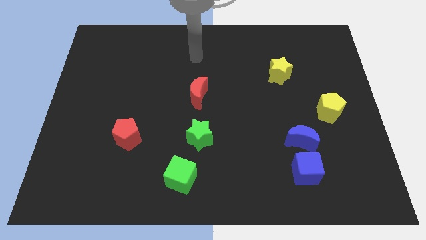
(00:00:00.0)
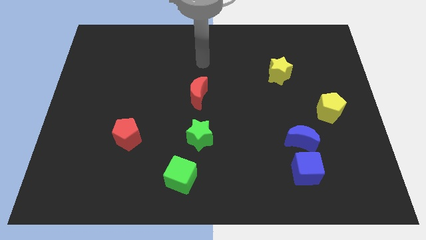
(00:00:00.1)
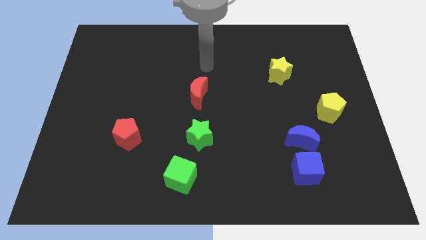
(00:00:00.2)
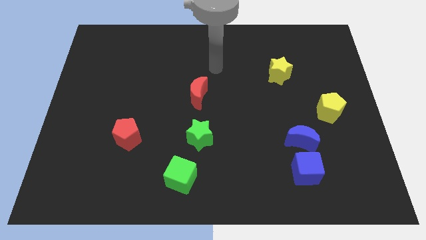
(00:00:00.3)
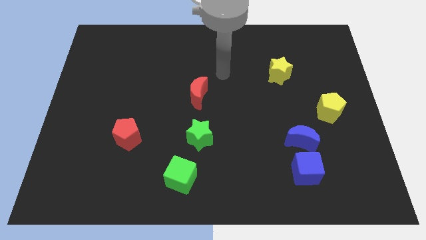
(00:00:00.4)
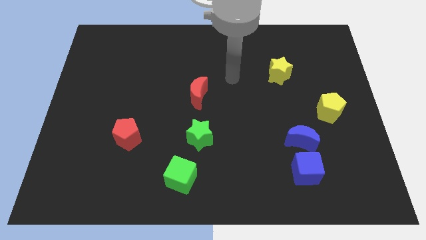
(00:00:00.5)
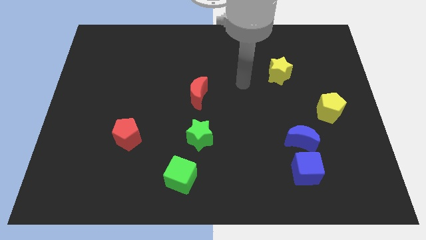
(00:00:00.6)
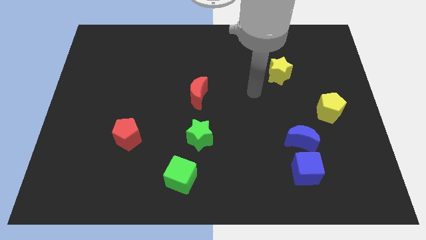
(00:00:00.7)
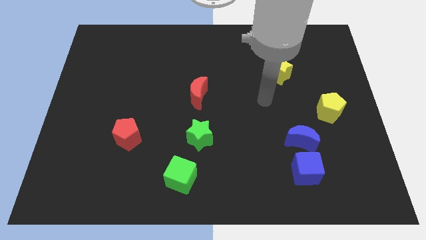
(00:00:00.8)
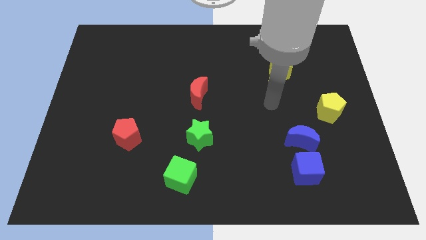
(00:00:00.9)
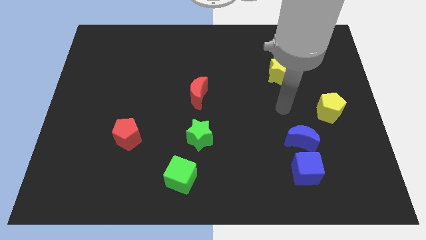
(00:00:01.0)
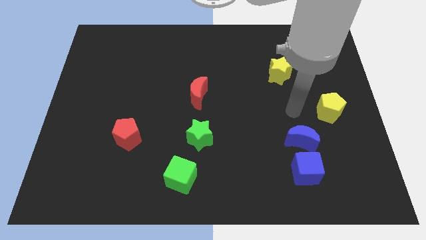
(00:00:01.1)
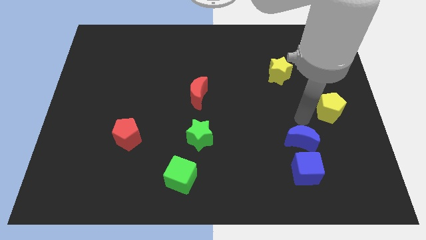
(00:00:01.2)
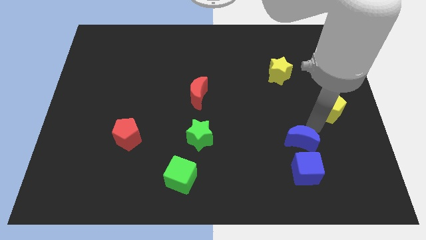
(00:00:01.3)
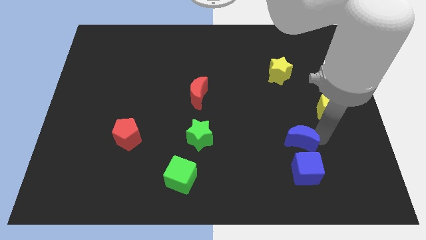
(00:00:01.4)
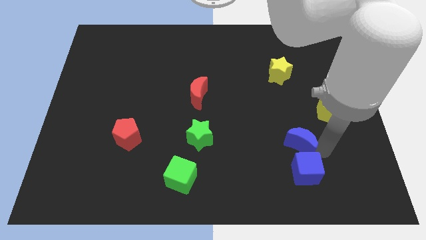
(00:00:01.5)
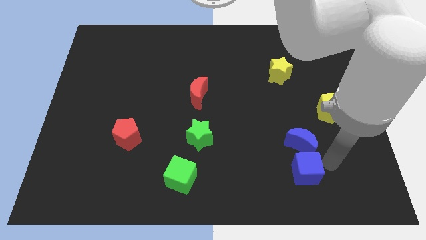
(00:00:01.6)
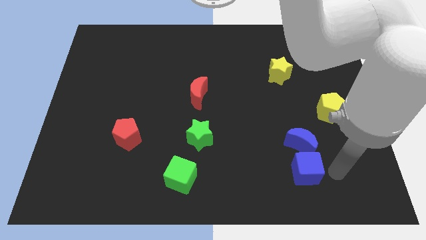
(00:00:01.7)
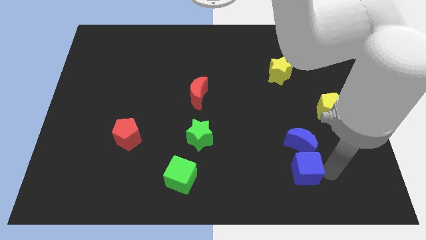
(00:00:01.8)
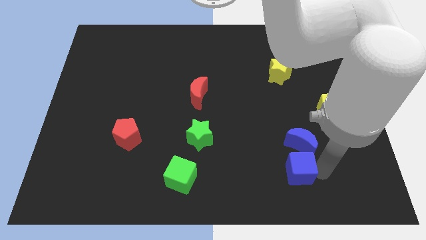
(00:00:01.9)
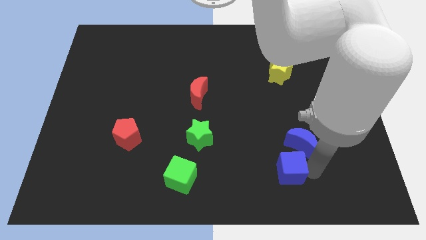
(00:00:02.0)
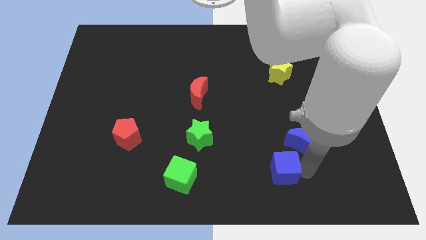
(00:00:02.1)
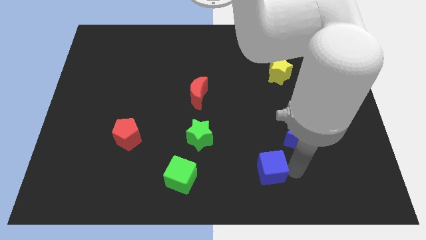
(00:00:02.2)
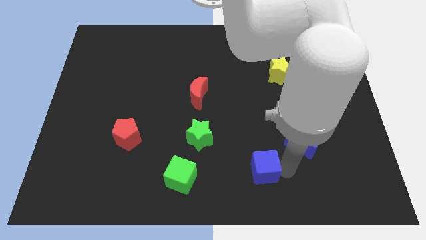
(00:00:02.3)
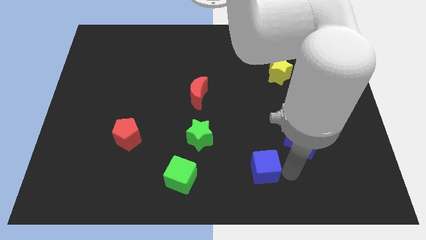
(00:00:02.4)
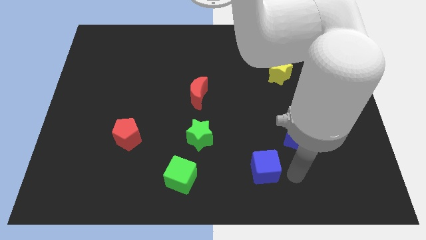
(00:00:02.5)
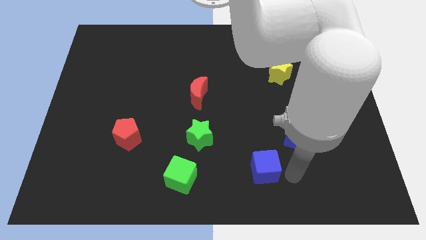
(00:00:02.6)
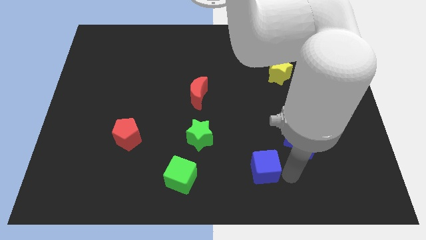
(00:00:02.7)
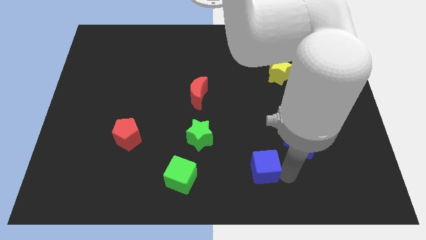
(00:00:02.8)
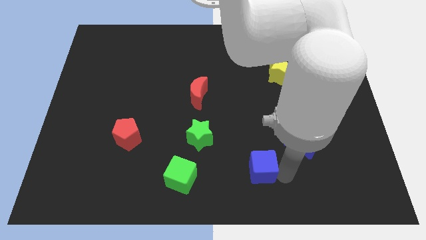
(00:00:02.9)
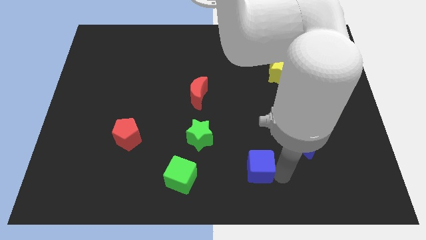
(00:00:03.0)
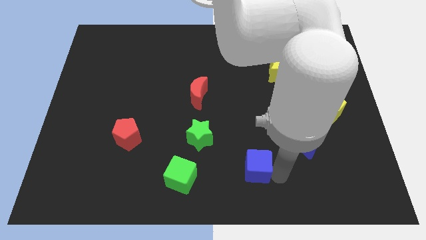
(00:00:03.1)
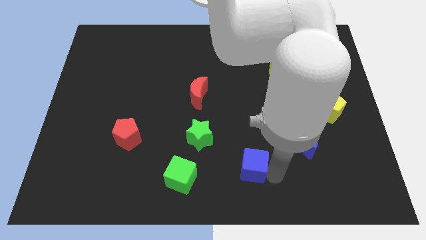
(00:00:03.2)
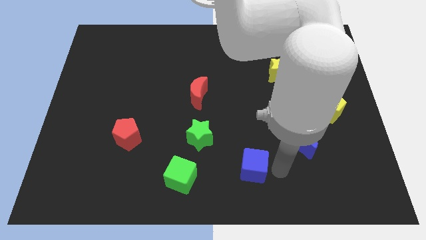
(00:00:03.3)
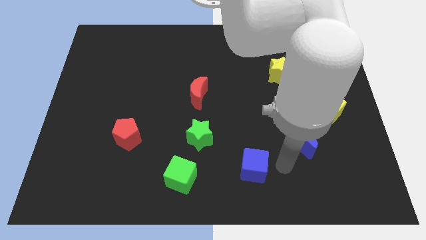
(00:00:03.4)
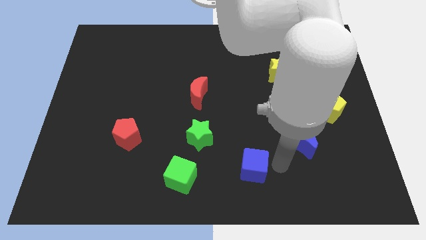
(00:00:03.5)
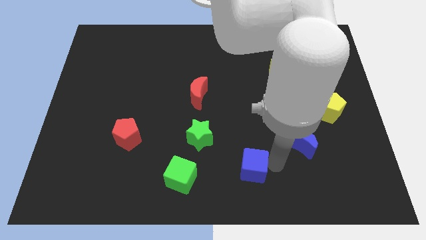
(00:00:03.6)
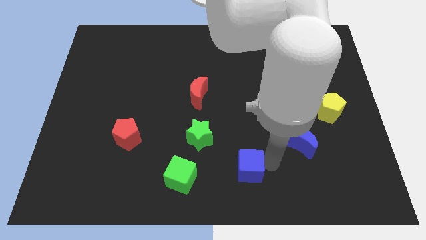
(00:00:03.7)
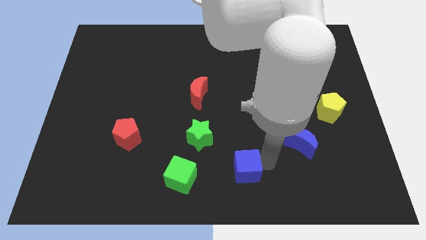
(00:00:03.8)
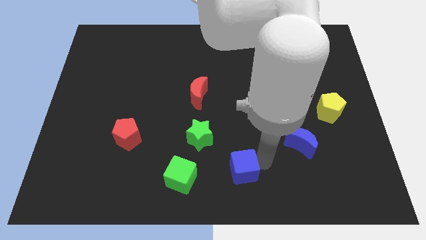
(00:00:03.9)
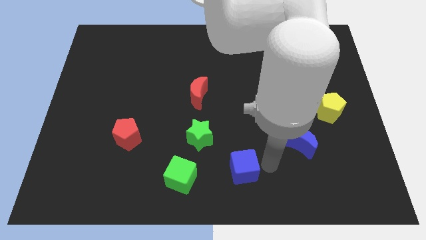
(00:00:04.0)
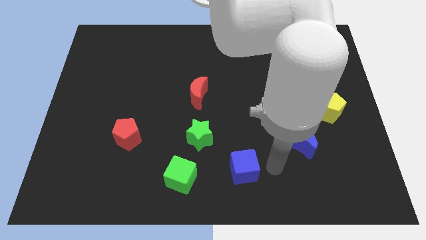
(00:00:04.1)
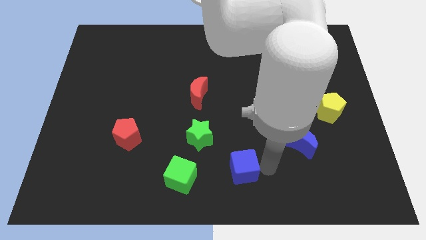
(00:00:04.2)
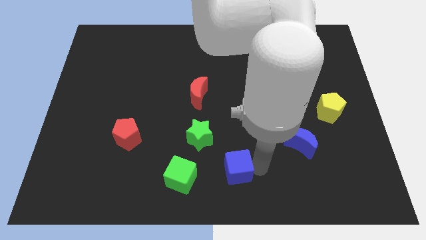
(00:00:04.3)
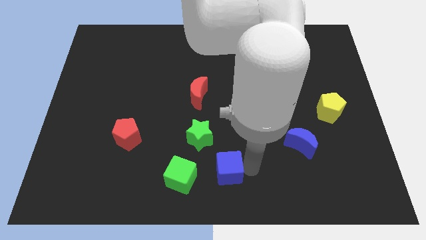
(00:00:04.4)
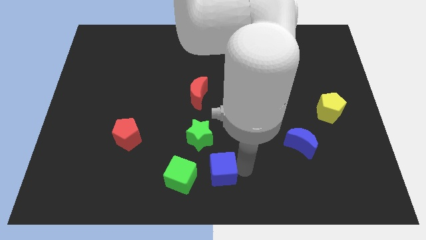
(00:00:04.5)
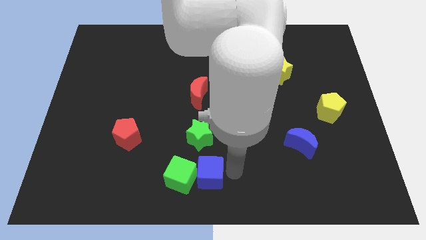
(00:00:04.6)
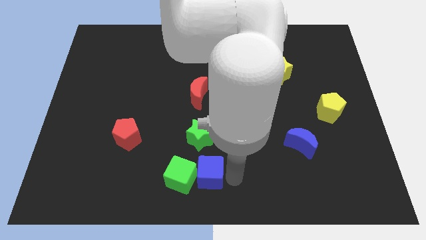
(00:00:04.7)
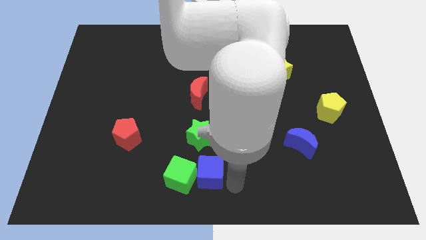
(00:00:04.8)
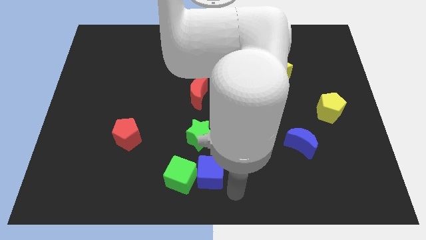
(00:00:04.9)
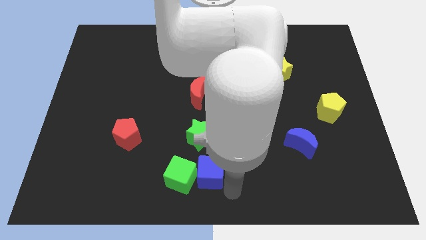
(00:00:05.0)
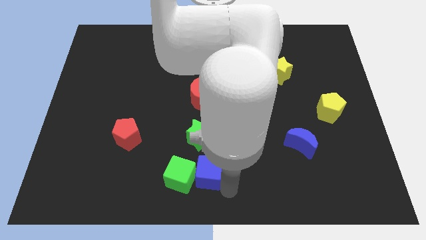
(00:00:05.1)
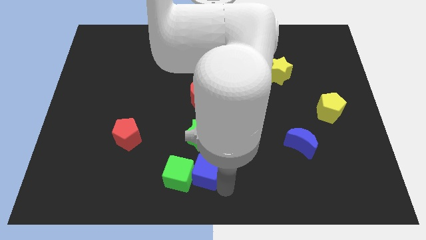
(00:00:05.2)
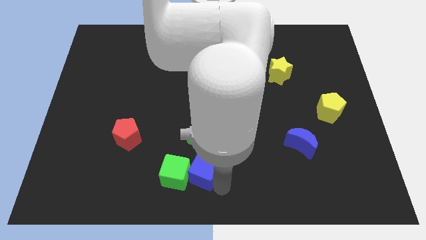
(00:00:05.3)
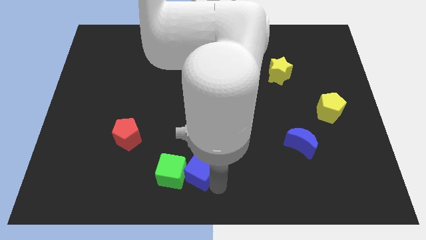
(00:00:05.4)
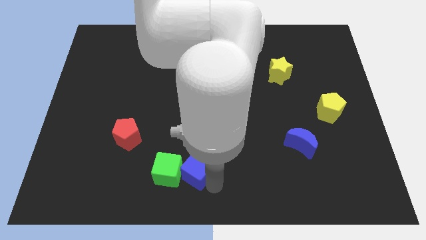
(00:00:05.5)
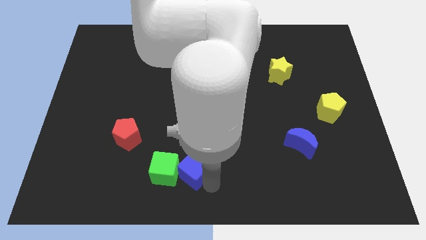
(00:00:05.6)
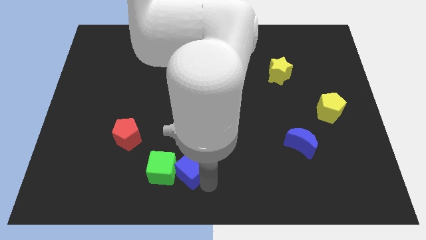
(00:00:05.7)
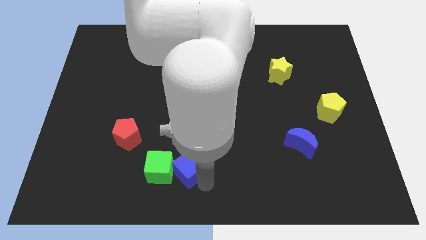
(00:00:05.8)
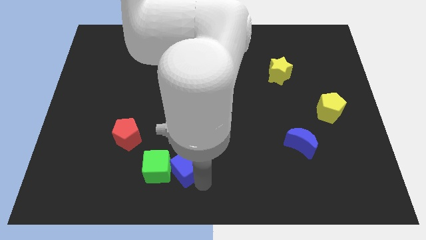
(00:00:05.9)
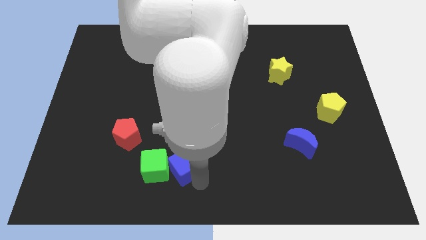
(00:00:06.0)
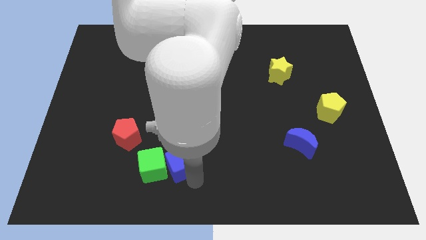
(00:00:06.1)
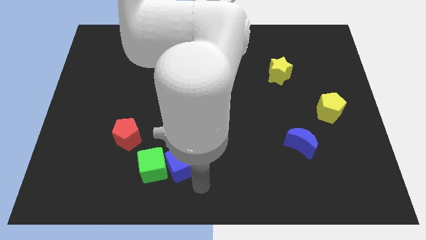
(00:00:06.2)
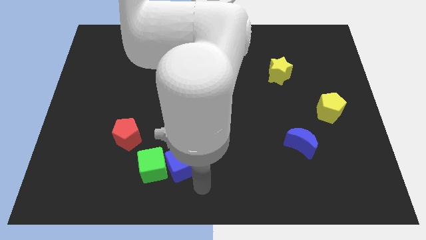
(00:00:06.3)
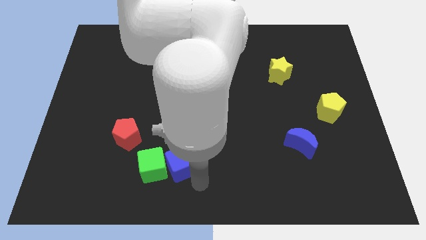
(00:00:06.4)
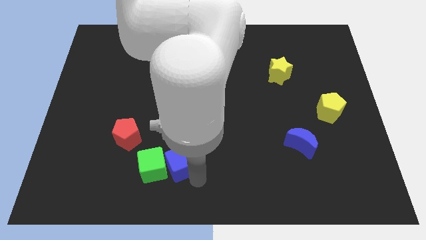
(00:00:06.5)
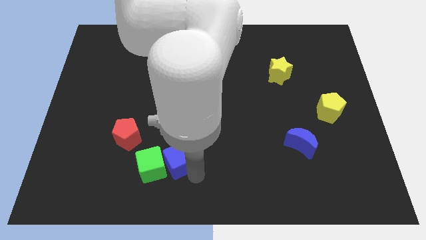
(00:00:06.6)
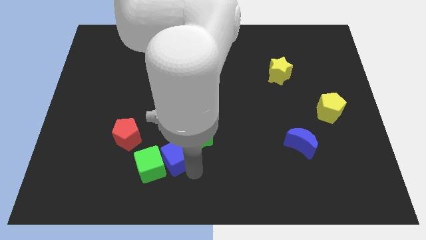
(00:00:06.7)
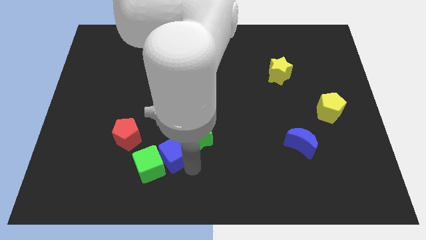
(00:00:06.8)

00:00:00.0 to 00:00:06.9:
move the blue cube to the left side of the green star

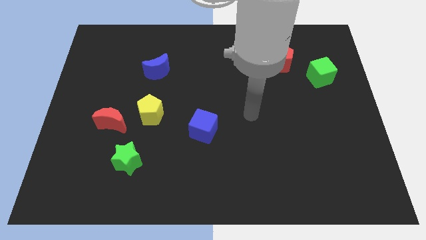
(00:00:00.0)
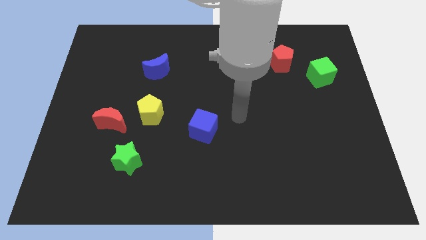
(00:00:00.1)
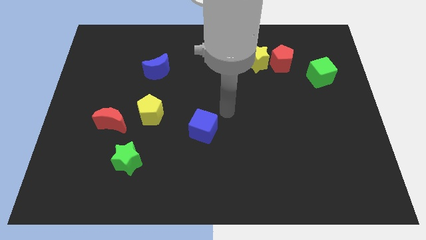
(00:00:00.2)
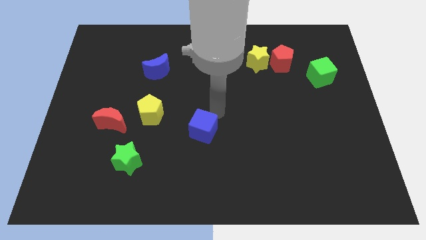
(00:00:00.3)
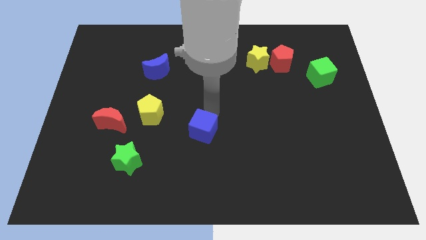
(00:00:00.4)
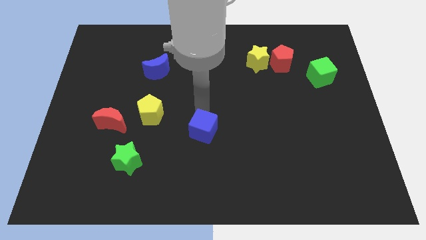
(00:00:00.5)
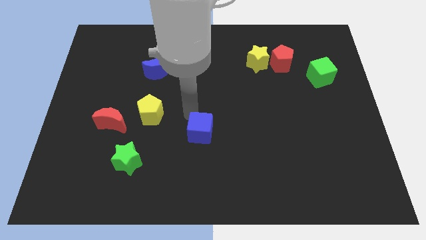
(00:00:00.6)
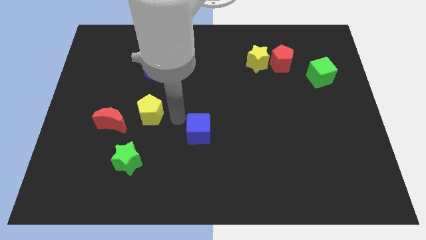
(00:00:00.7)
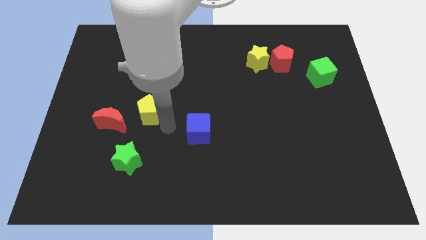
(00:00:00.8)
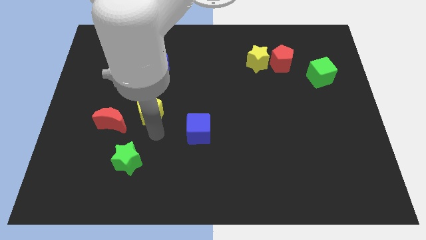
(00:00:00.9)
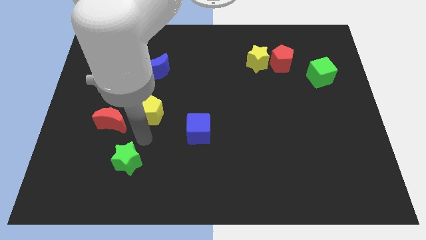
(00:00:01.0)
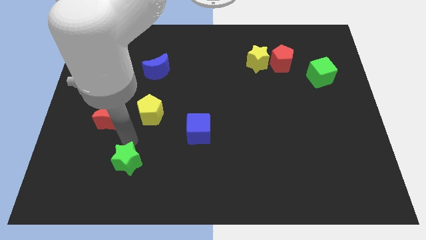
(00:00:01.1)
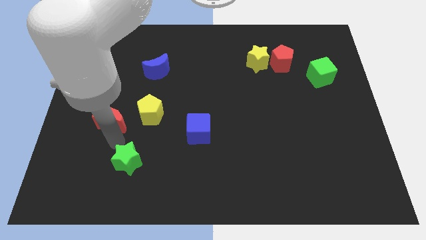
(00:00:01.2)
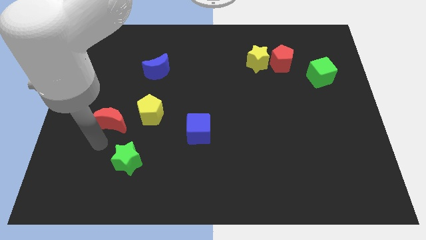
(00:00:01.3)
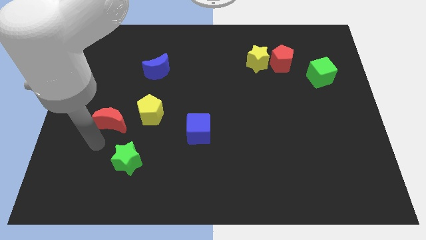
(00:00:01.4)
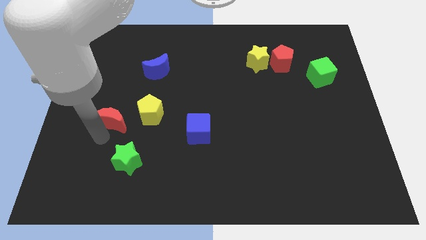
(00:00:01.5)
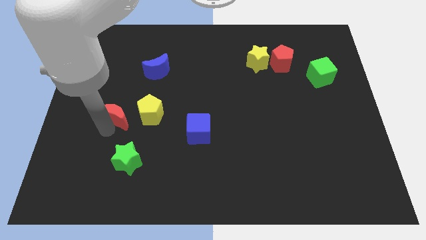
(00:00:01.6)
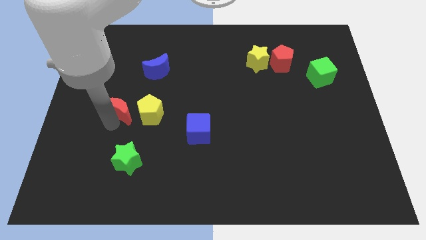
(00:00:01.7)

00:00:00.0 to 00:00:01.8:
slide the red moon to the top left side of the yellow pentagon
